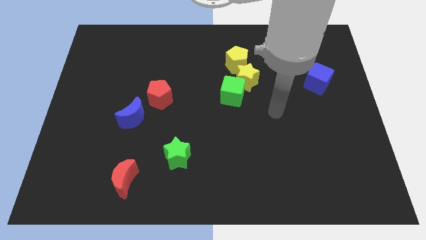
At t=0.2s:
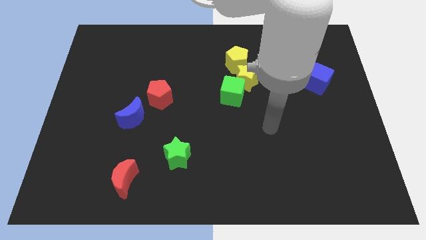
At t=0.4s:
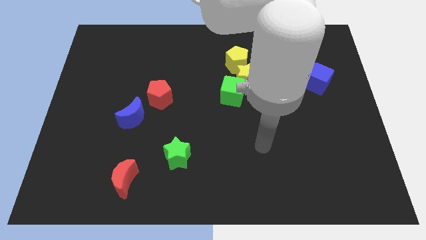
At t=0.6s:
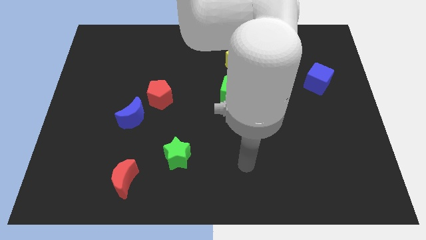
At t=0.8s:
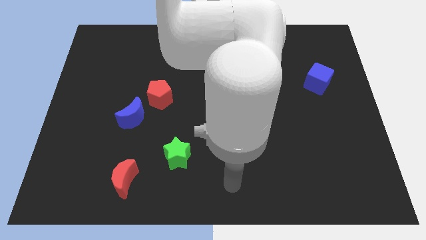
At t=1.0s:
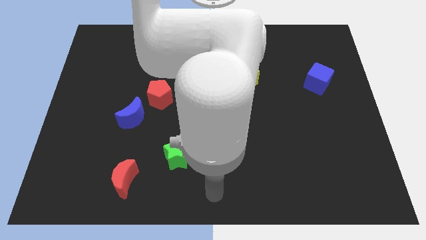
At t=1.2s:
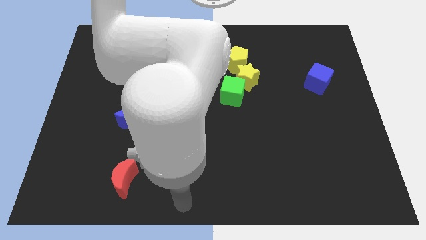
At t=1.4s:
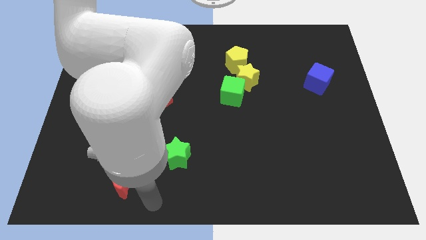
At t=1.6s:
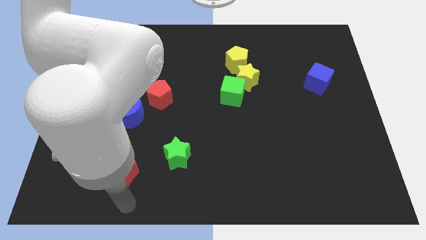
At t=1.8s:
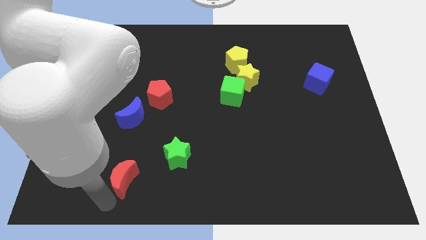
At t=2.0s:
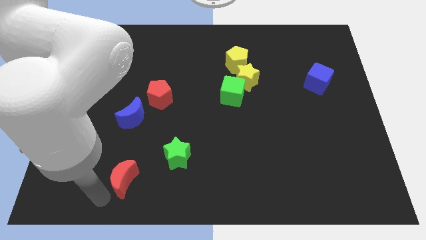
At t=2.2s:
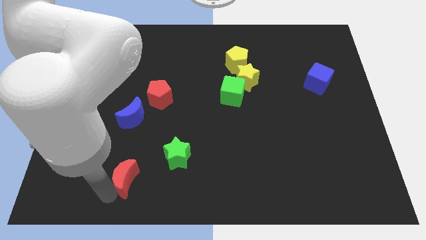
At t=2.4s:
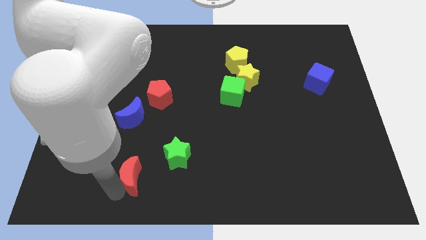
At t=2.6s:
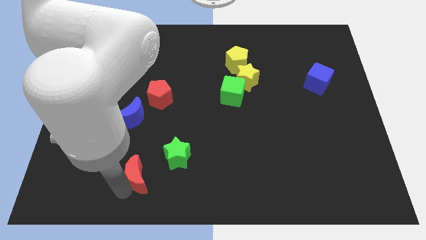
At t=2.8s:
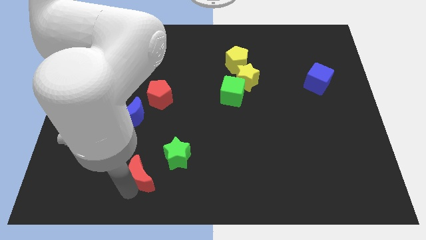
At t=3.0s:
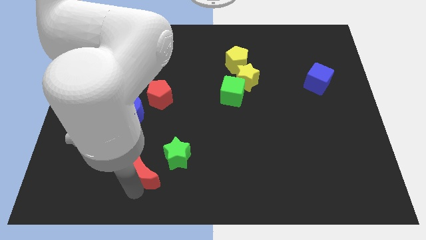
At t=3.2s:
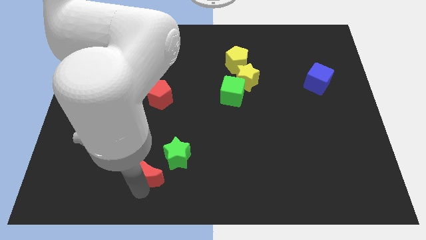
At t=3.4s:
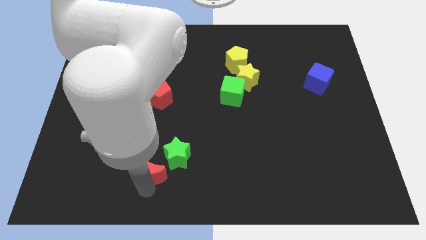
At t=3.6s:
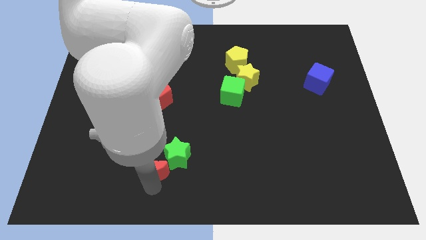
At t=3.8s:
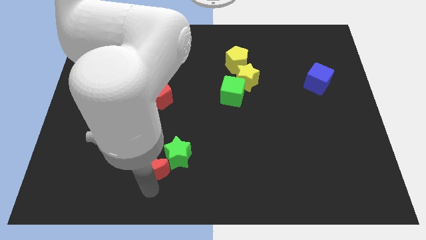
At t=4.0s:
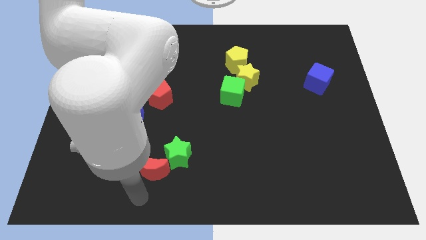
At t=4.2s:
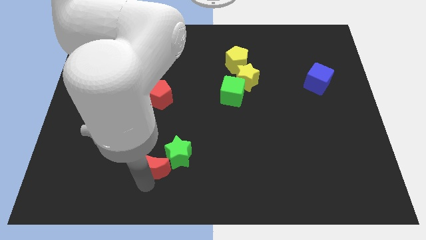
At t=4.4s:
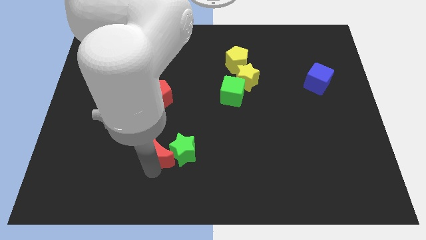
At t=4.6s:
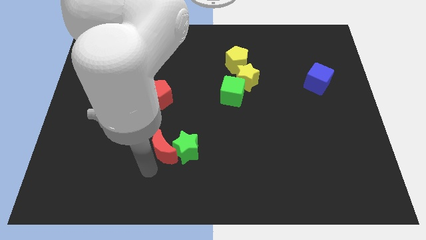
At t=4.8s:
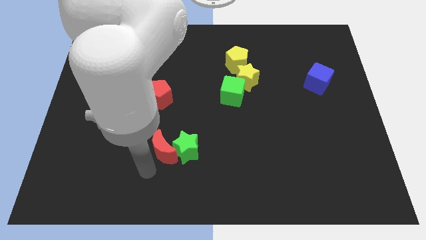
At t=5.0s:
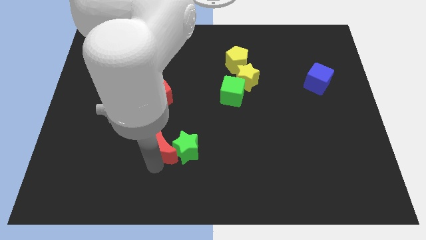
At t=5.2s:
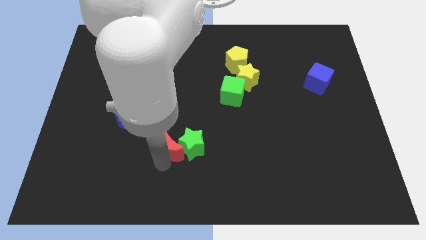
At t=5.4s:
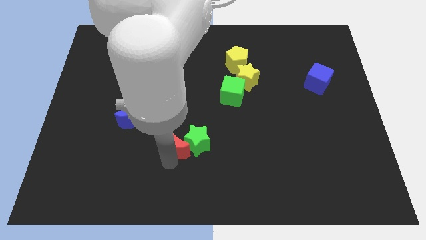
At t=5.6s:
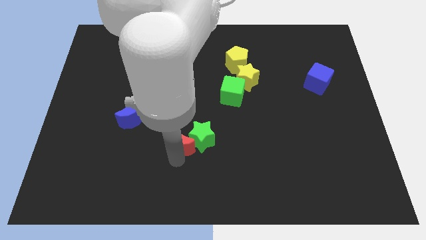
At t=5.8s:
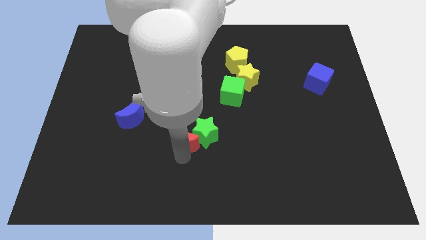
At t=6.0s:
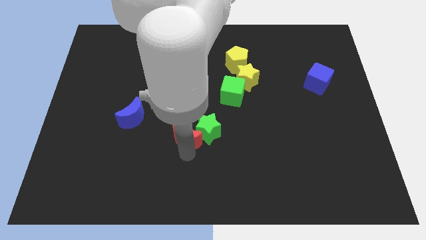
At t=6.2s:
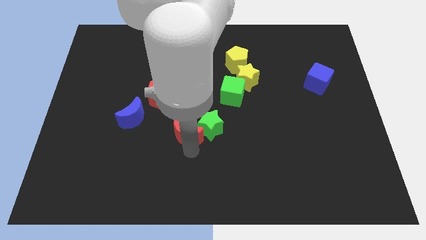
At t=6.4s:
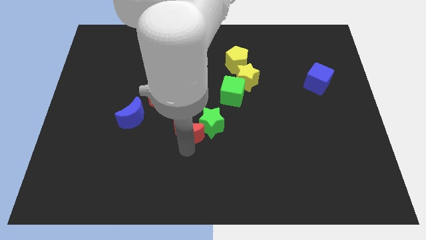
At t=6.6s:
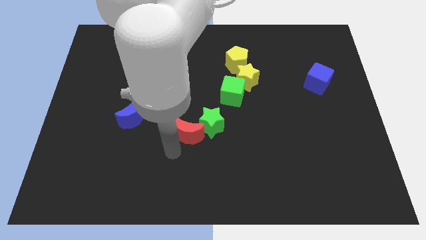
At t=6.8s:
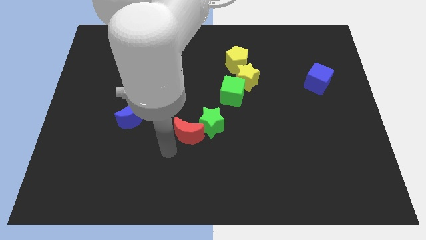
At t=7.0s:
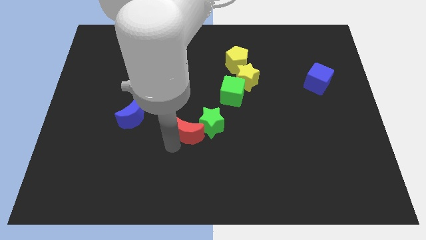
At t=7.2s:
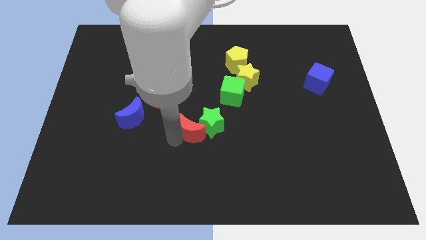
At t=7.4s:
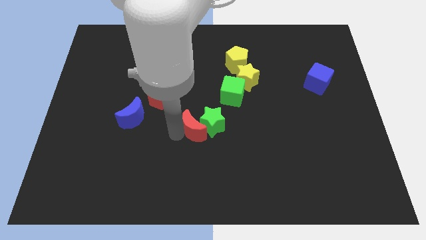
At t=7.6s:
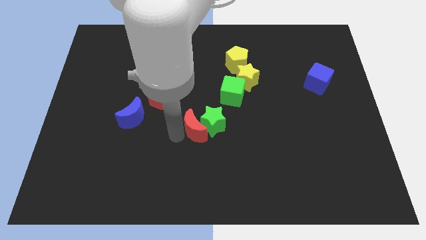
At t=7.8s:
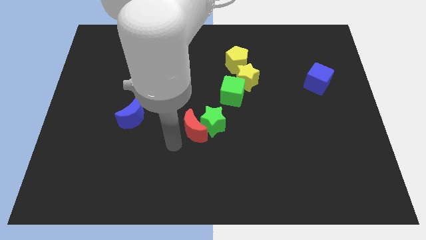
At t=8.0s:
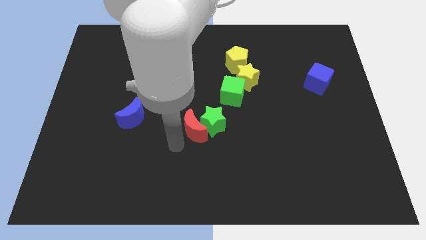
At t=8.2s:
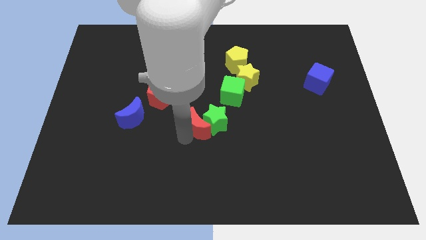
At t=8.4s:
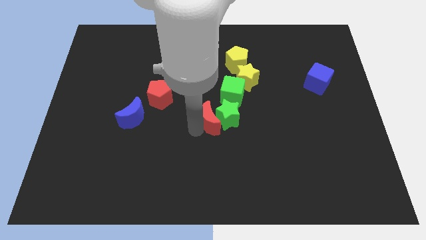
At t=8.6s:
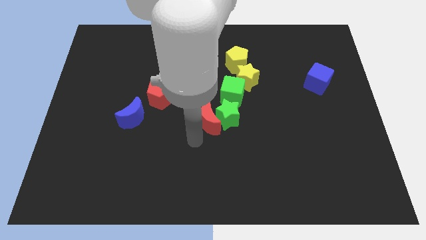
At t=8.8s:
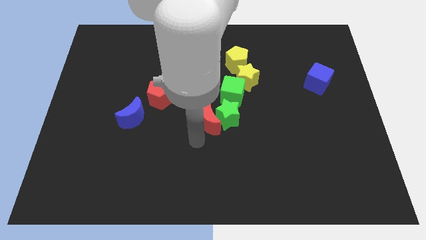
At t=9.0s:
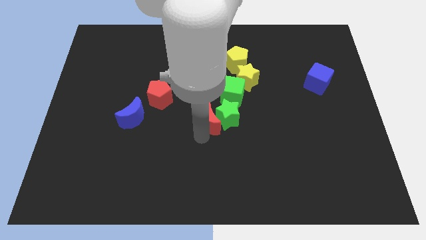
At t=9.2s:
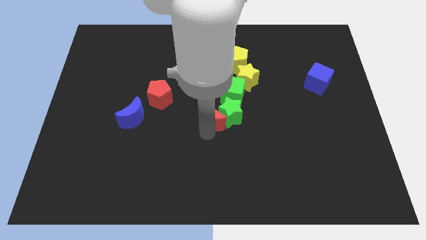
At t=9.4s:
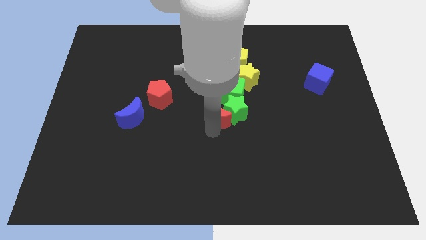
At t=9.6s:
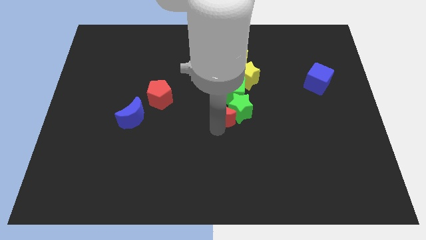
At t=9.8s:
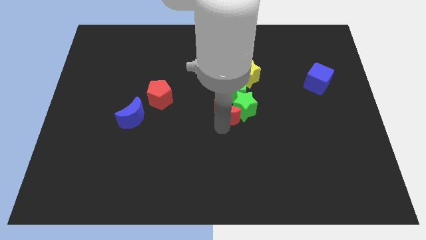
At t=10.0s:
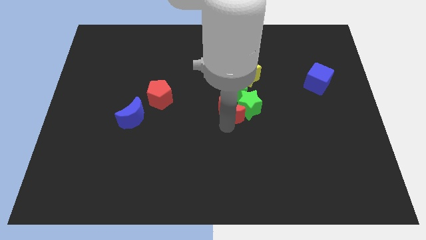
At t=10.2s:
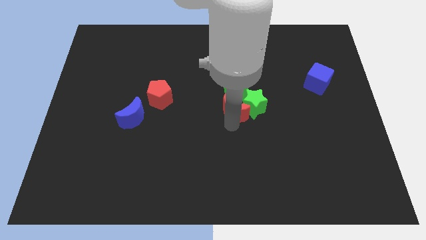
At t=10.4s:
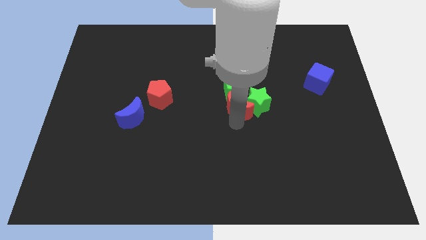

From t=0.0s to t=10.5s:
move the red moon to the green cube

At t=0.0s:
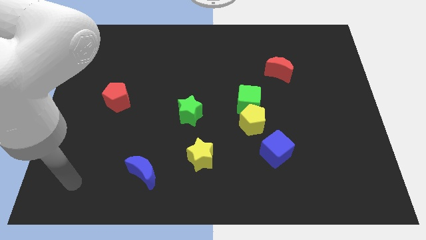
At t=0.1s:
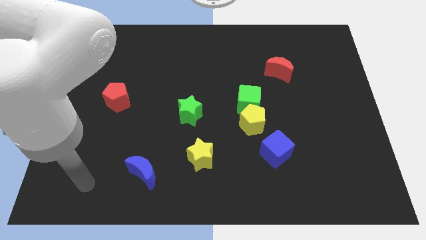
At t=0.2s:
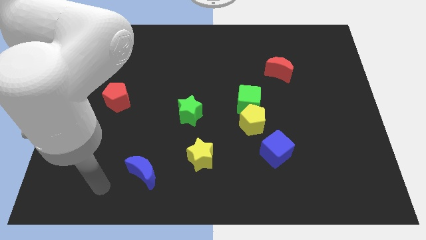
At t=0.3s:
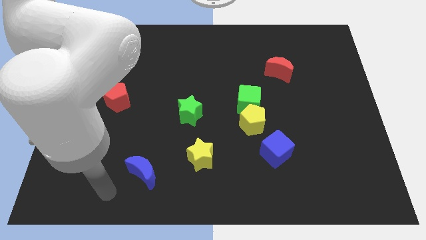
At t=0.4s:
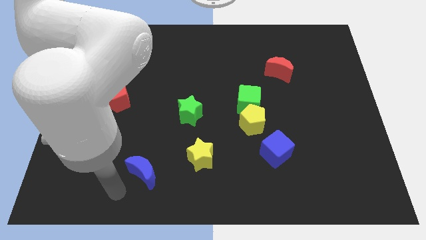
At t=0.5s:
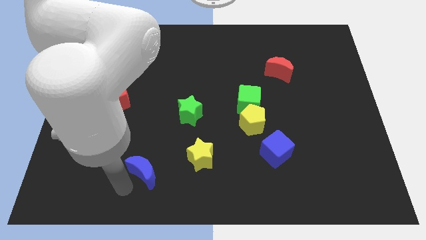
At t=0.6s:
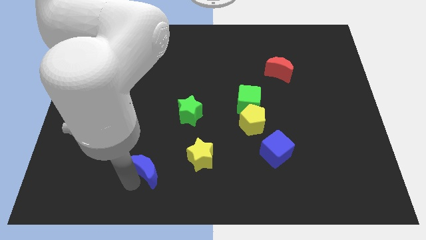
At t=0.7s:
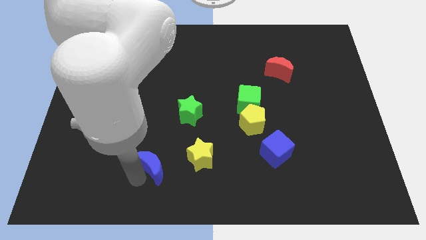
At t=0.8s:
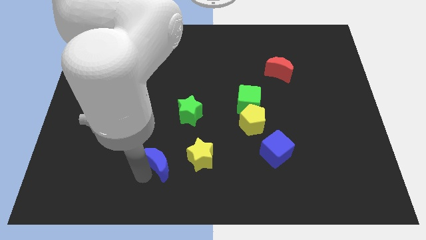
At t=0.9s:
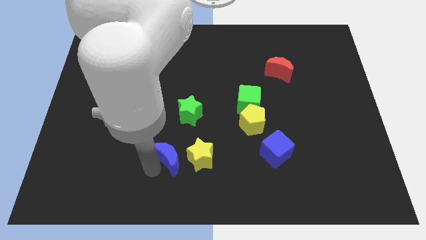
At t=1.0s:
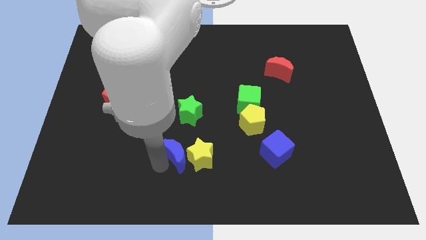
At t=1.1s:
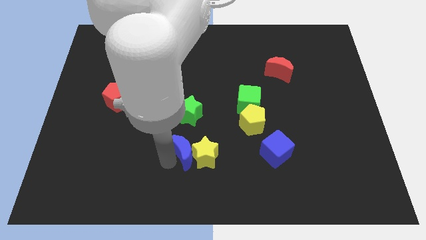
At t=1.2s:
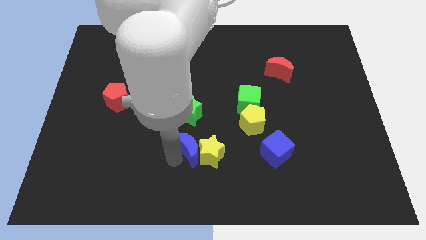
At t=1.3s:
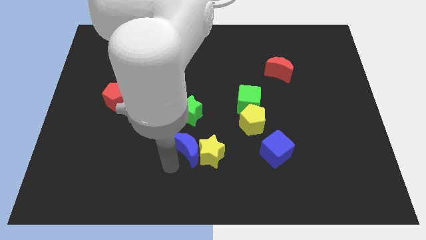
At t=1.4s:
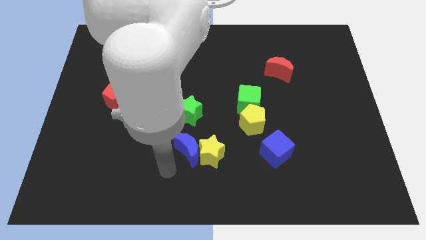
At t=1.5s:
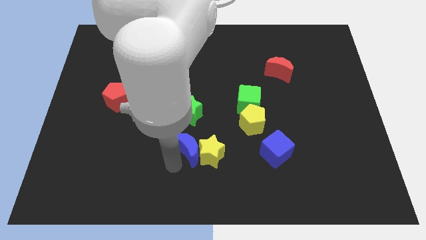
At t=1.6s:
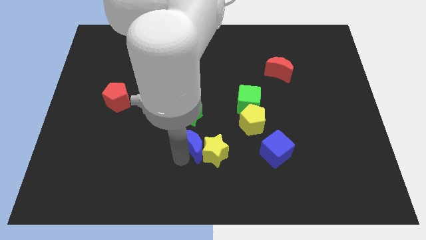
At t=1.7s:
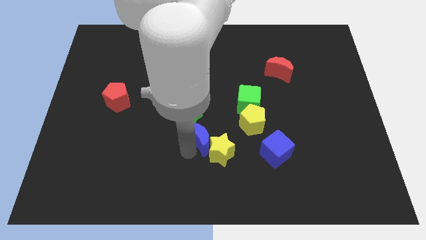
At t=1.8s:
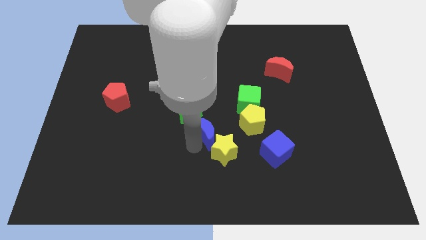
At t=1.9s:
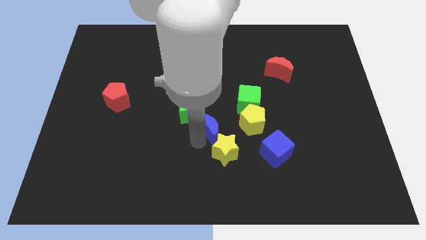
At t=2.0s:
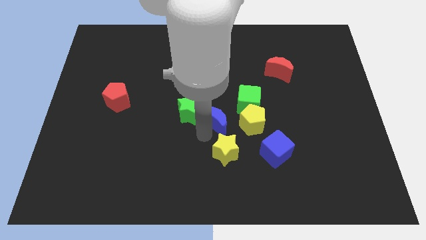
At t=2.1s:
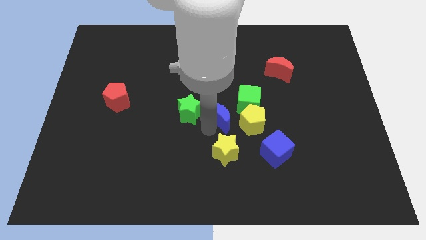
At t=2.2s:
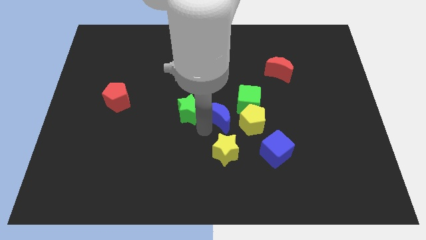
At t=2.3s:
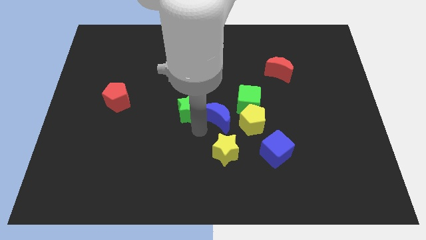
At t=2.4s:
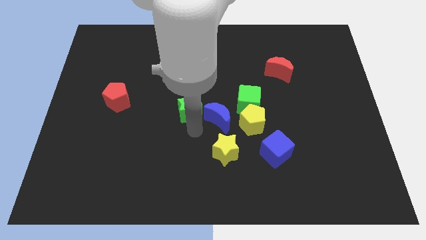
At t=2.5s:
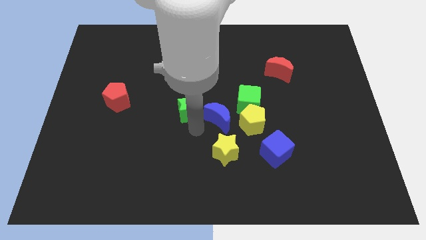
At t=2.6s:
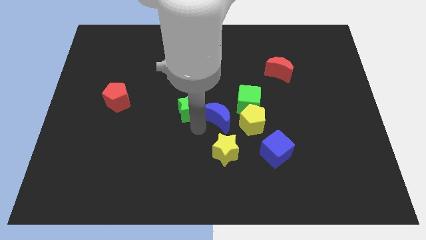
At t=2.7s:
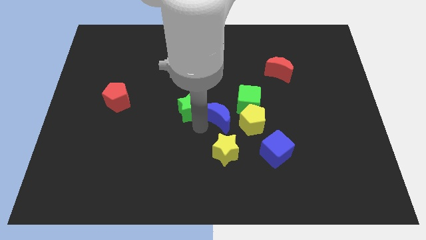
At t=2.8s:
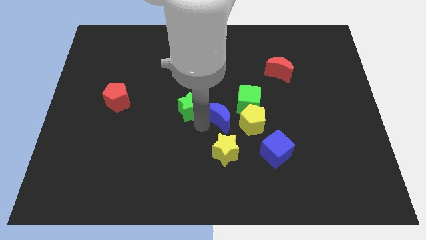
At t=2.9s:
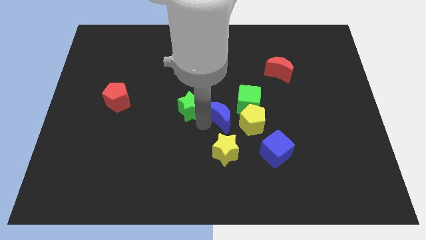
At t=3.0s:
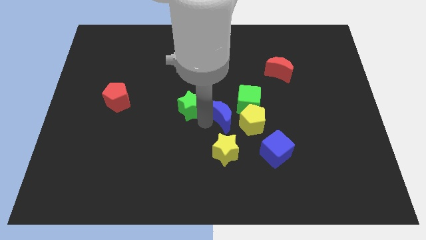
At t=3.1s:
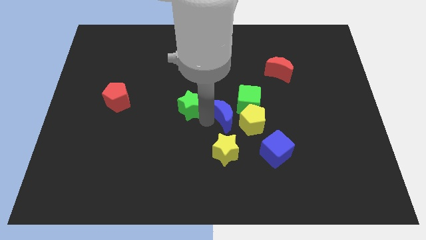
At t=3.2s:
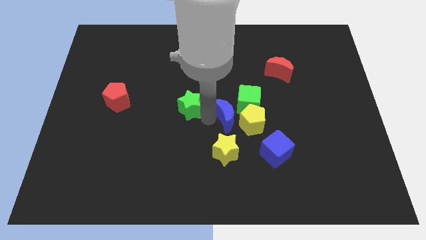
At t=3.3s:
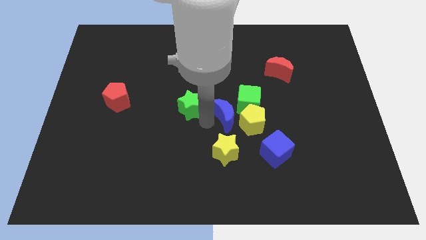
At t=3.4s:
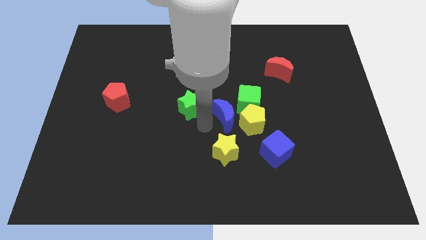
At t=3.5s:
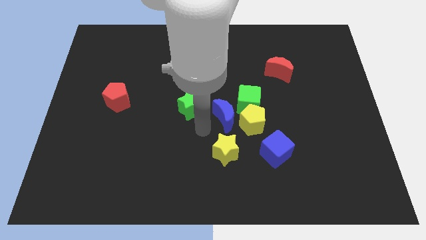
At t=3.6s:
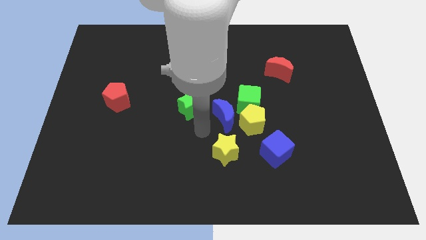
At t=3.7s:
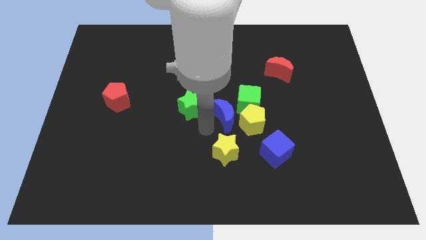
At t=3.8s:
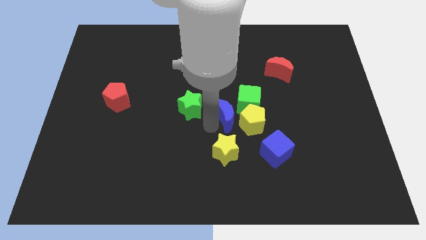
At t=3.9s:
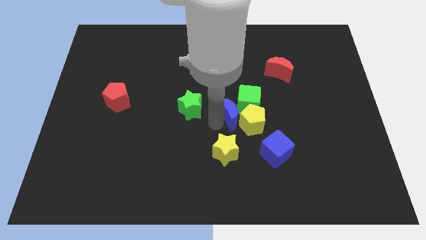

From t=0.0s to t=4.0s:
move the blue moon next to the green cube
